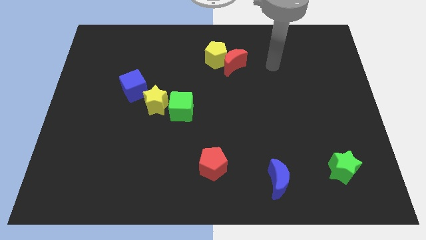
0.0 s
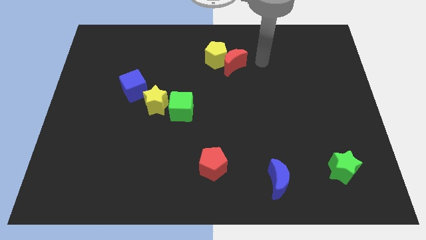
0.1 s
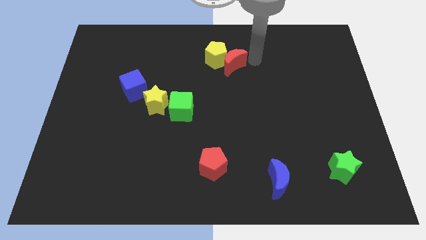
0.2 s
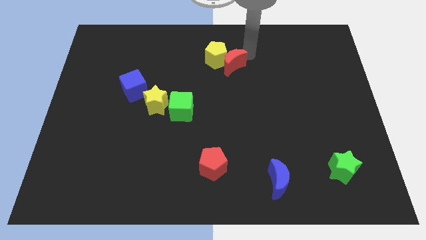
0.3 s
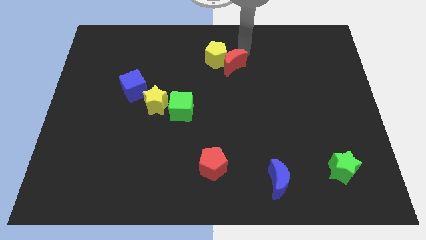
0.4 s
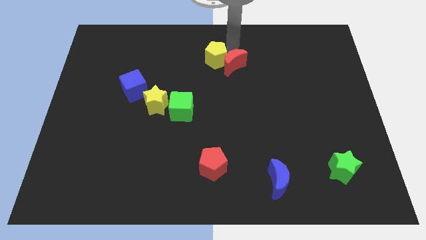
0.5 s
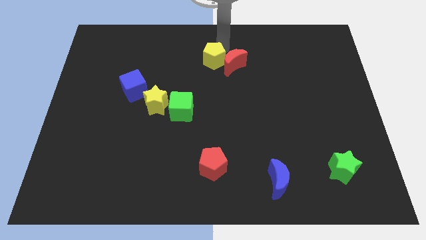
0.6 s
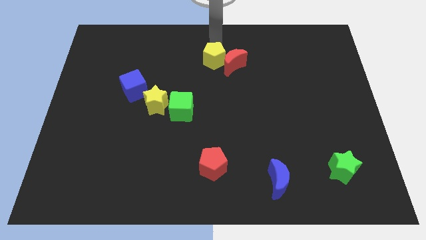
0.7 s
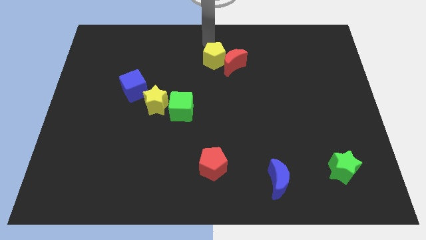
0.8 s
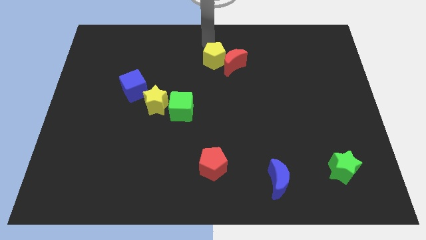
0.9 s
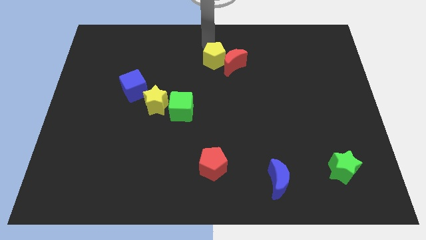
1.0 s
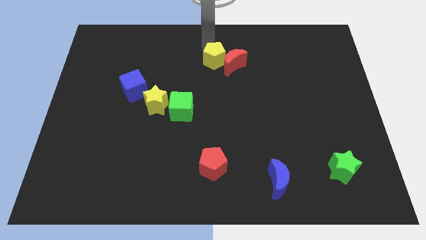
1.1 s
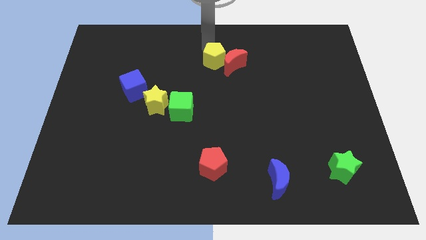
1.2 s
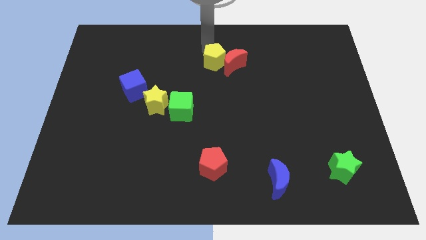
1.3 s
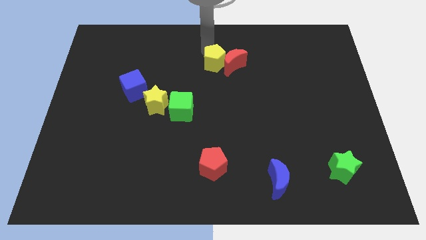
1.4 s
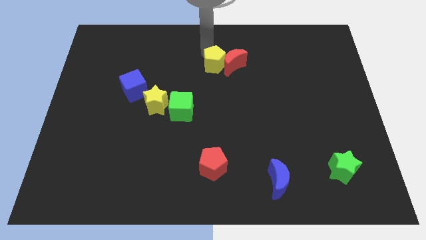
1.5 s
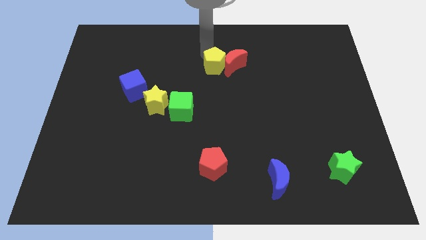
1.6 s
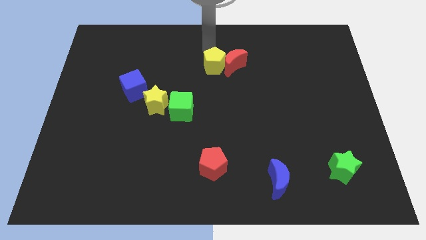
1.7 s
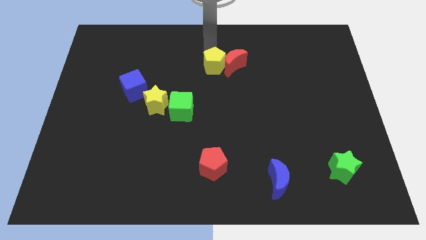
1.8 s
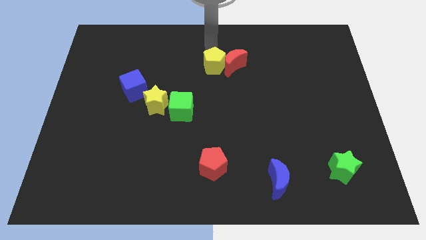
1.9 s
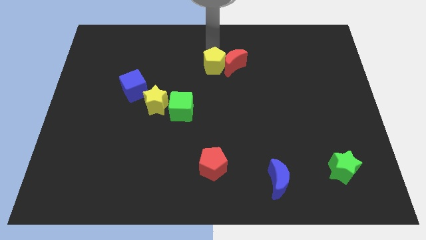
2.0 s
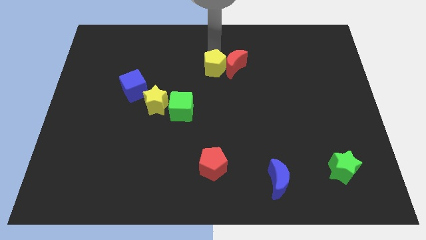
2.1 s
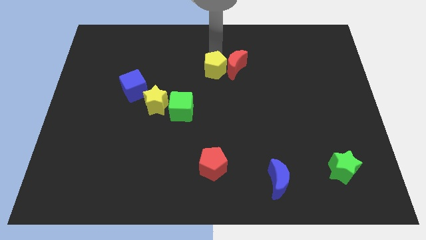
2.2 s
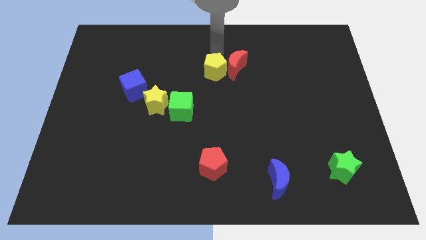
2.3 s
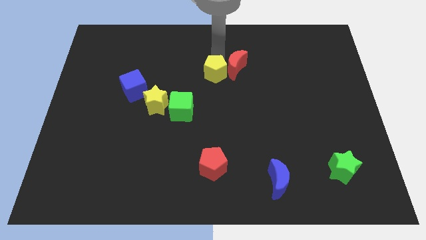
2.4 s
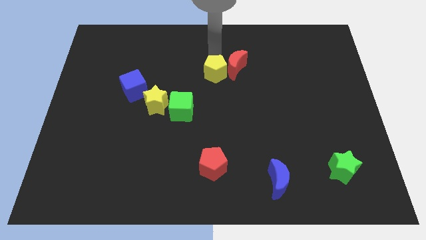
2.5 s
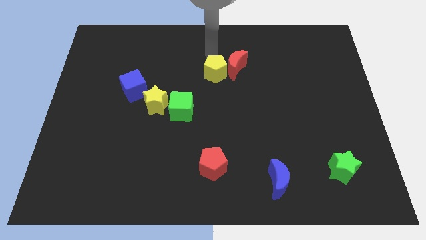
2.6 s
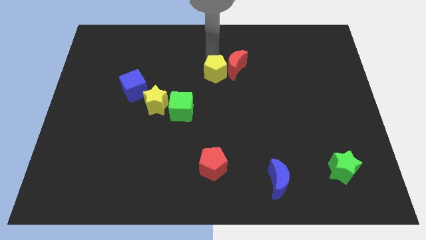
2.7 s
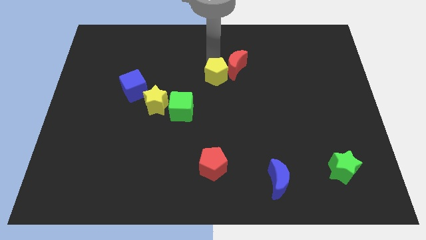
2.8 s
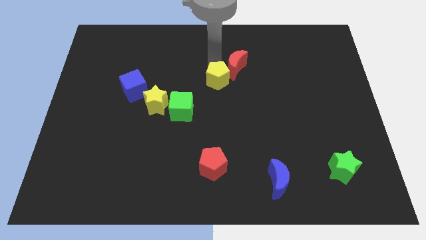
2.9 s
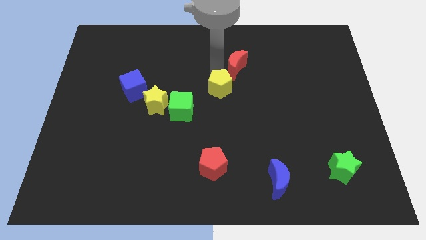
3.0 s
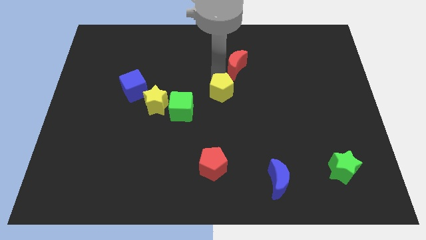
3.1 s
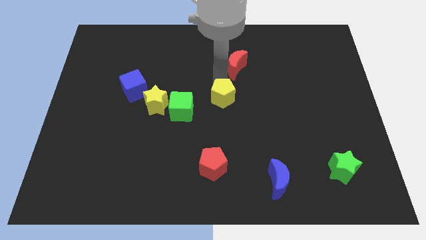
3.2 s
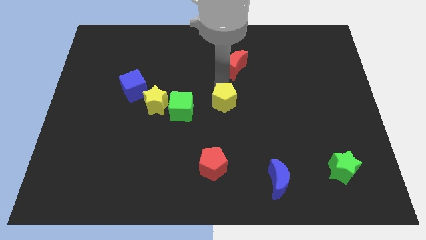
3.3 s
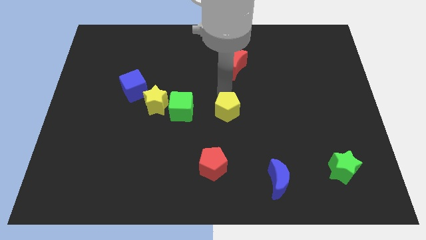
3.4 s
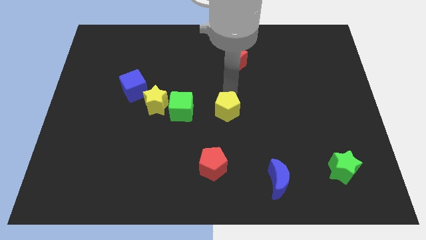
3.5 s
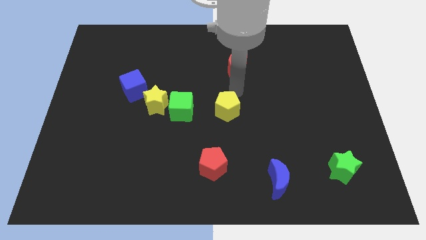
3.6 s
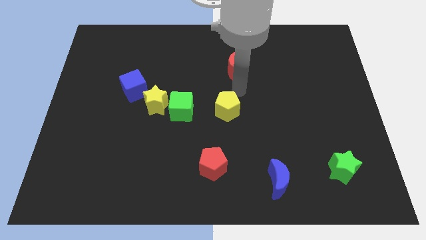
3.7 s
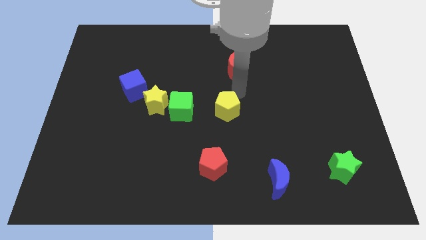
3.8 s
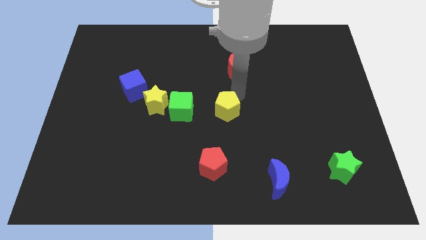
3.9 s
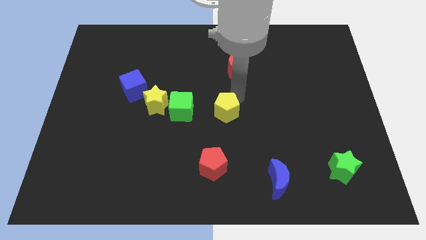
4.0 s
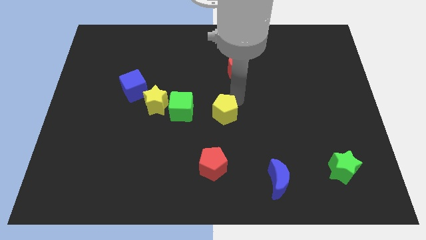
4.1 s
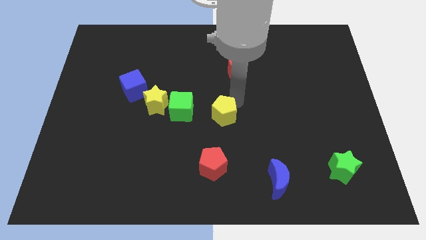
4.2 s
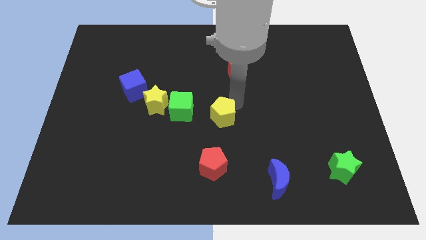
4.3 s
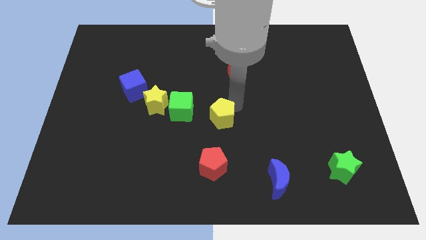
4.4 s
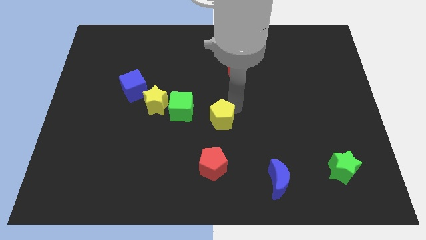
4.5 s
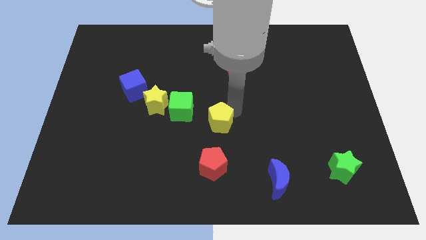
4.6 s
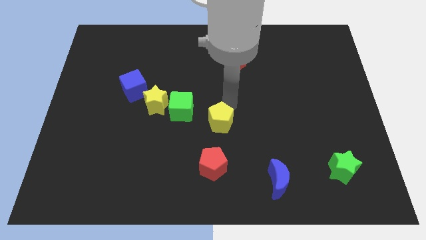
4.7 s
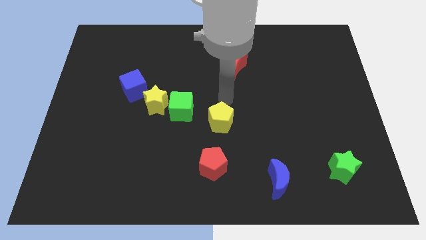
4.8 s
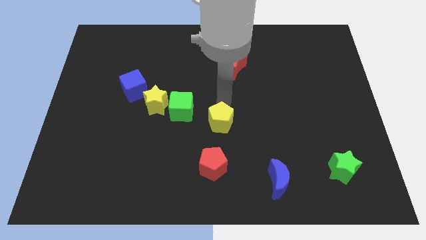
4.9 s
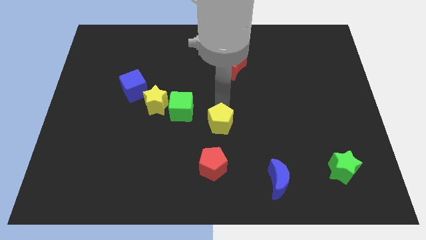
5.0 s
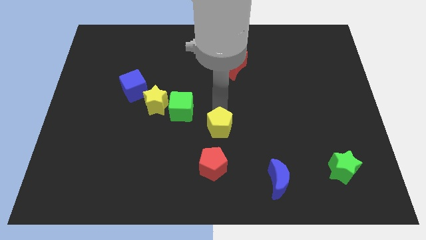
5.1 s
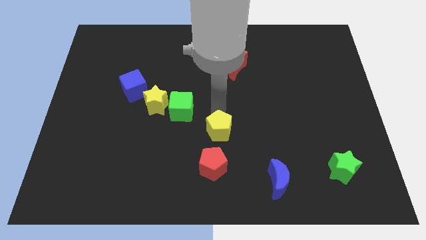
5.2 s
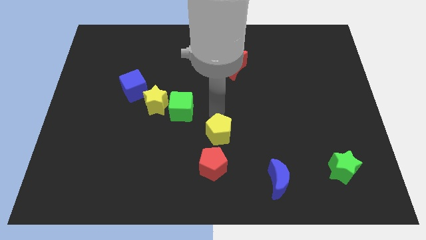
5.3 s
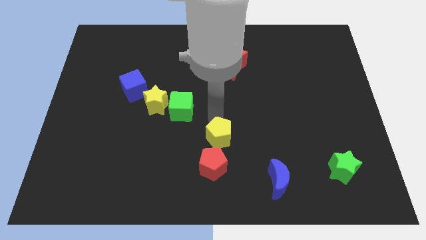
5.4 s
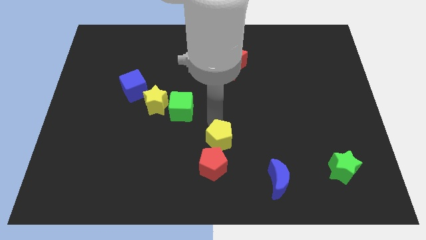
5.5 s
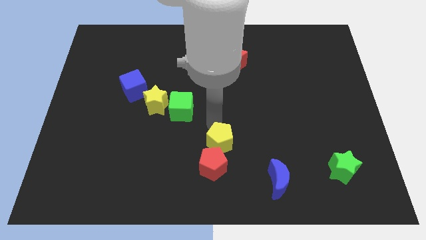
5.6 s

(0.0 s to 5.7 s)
put the yellow pentagon to the red pentagon

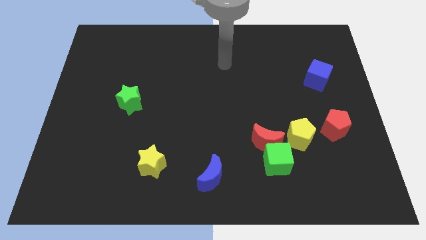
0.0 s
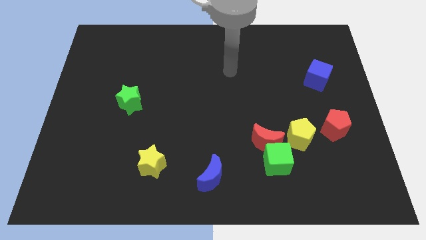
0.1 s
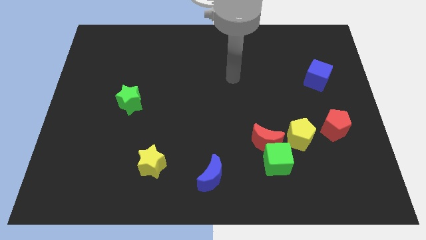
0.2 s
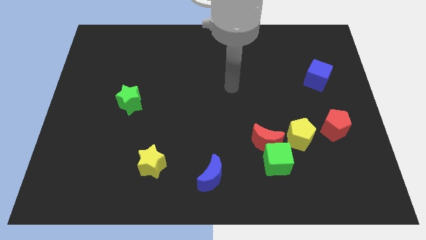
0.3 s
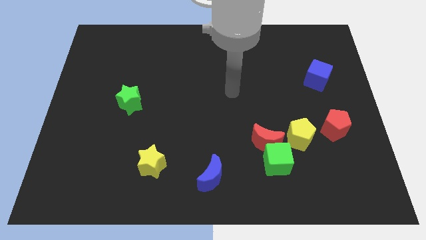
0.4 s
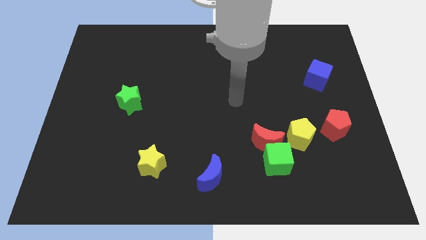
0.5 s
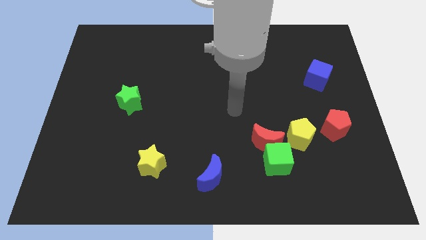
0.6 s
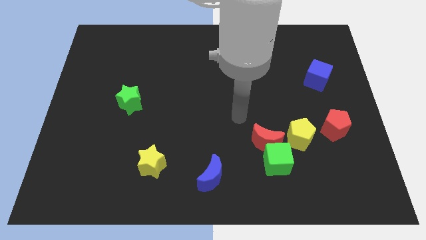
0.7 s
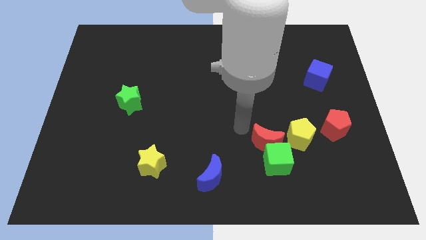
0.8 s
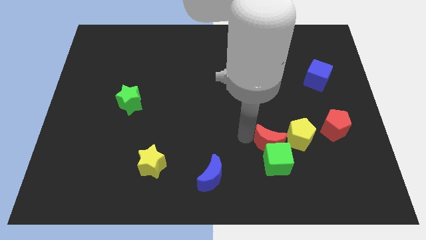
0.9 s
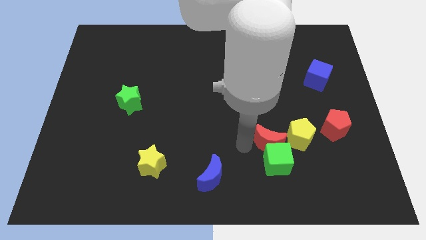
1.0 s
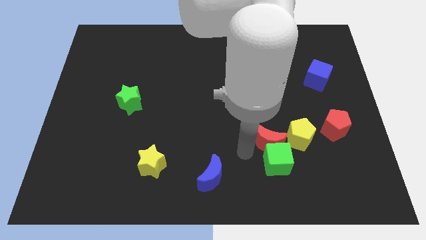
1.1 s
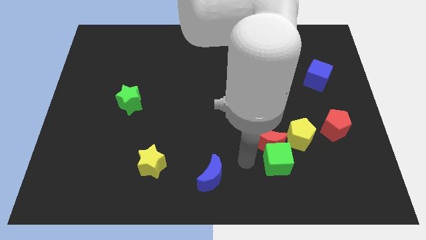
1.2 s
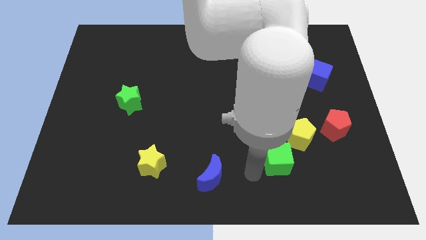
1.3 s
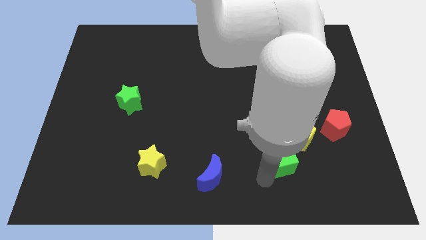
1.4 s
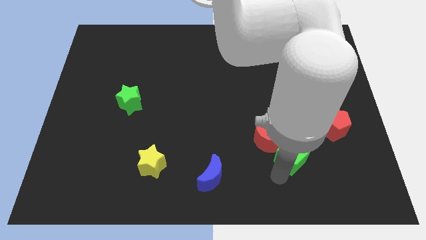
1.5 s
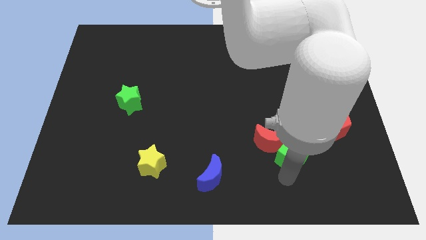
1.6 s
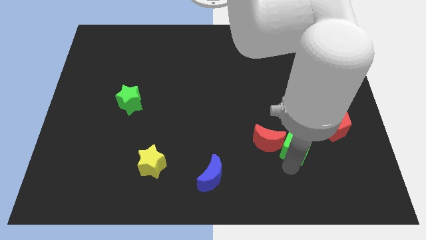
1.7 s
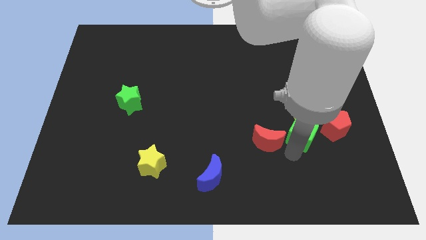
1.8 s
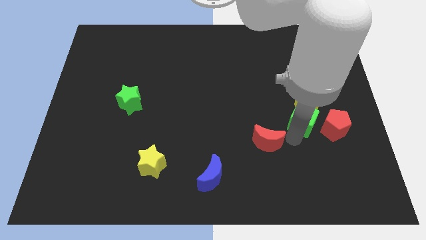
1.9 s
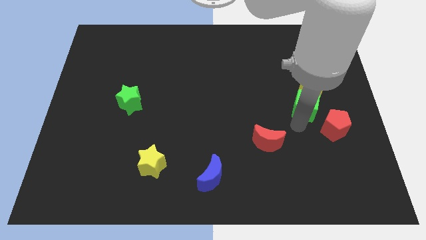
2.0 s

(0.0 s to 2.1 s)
put the yellow pentagon next to the blue cube
